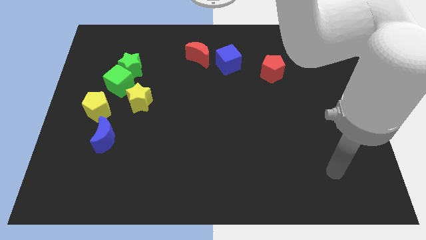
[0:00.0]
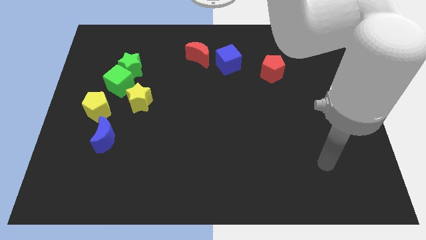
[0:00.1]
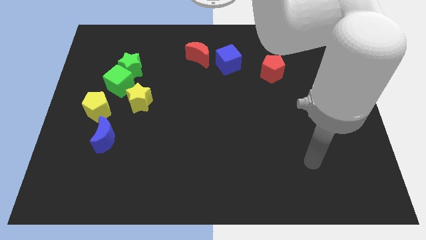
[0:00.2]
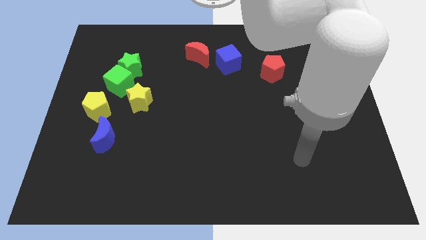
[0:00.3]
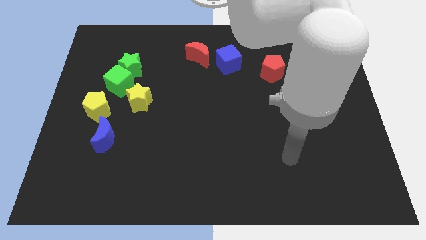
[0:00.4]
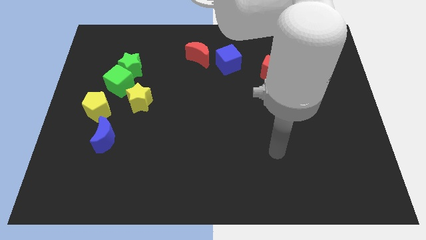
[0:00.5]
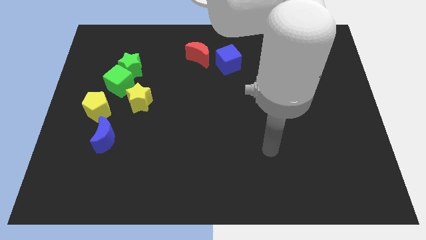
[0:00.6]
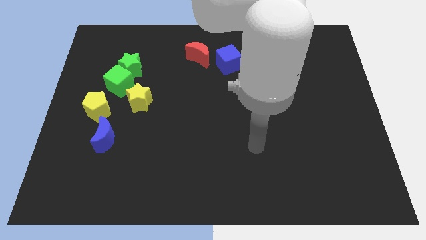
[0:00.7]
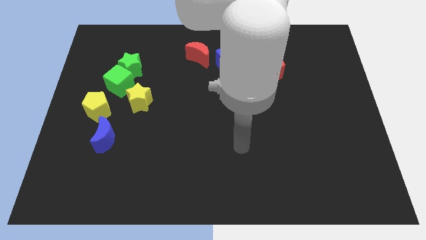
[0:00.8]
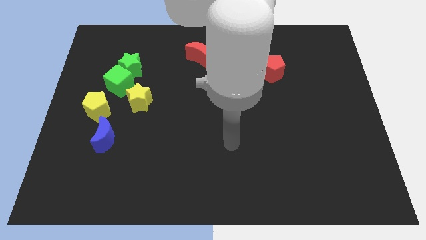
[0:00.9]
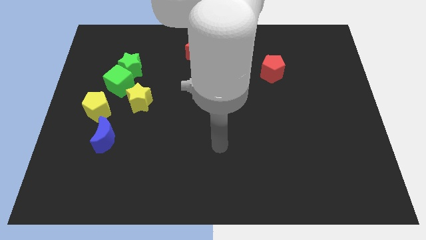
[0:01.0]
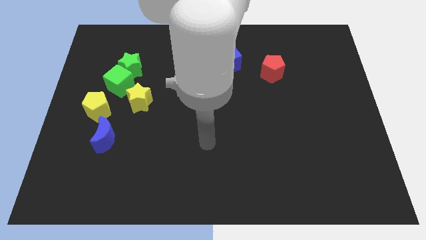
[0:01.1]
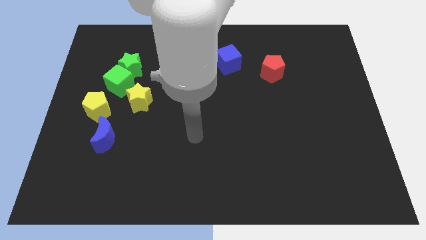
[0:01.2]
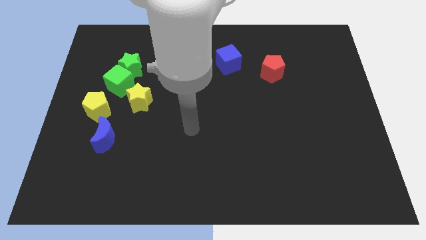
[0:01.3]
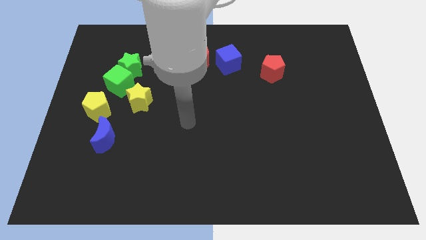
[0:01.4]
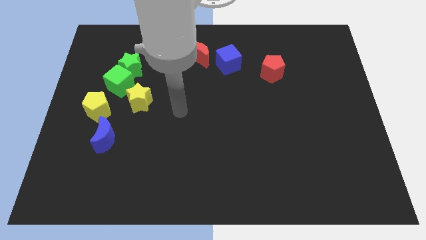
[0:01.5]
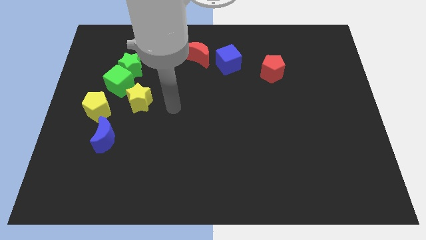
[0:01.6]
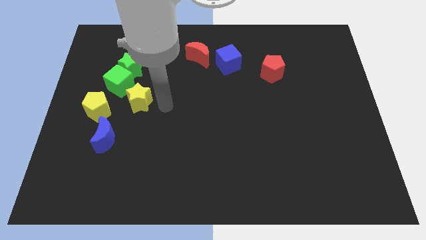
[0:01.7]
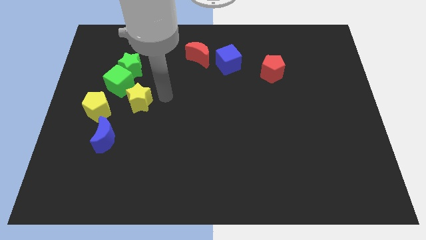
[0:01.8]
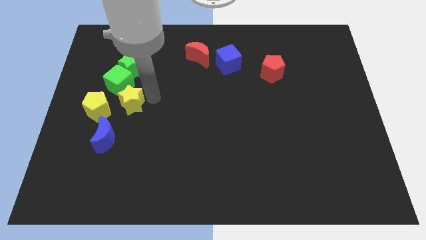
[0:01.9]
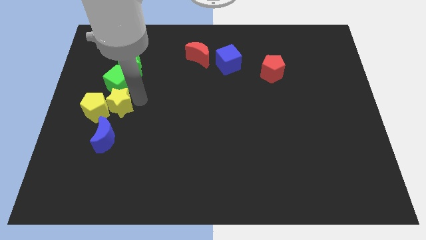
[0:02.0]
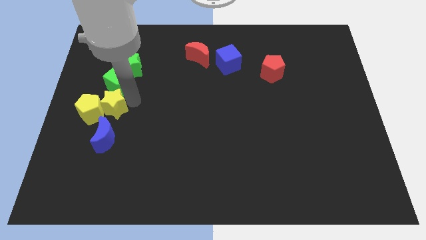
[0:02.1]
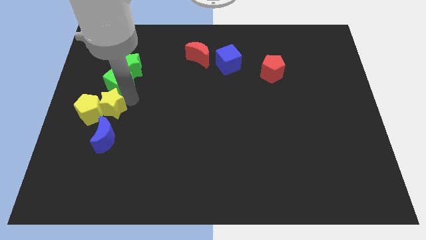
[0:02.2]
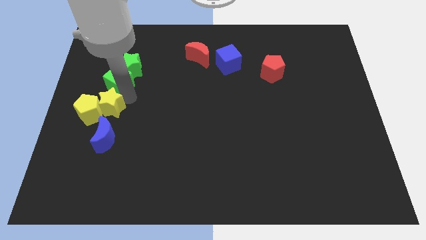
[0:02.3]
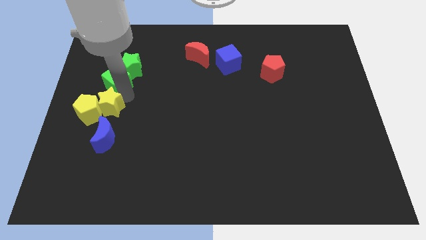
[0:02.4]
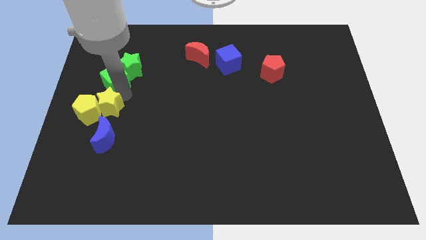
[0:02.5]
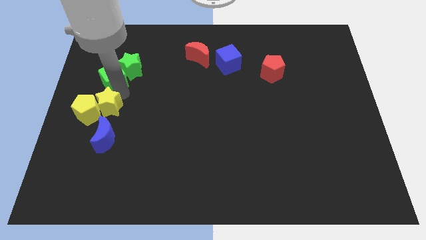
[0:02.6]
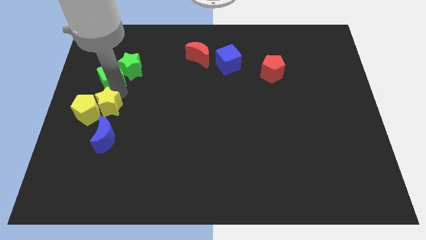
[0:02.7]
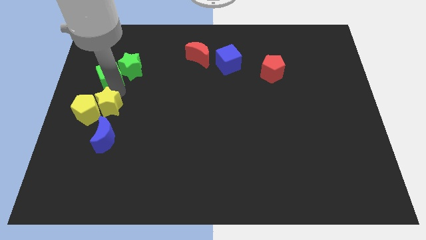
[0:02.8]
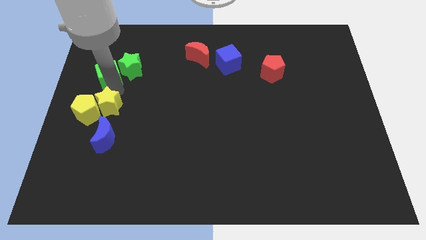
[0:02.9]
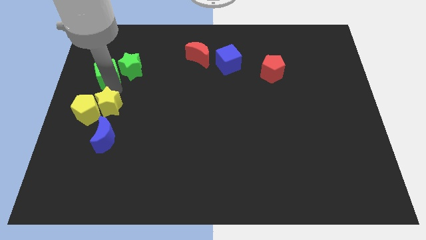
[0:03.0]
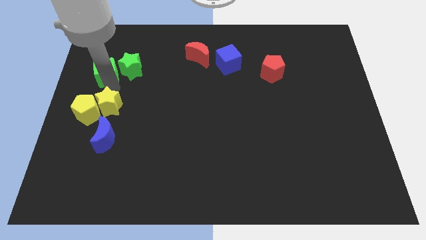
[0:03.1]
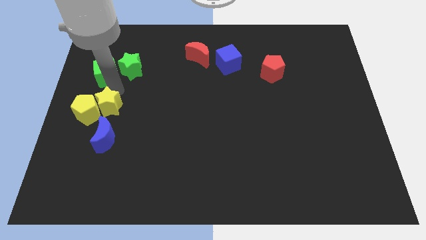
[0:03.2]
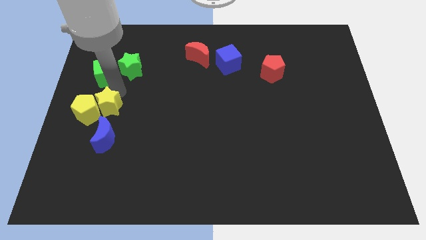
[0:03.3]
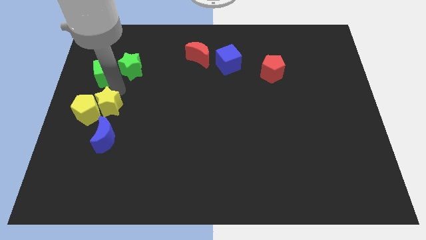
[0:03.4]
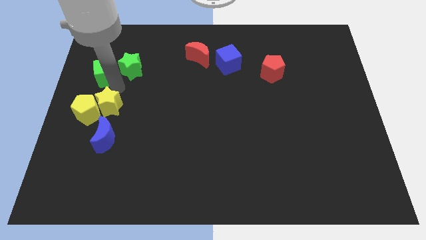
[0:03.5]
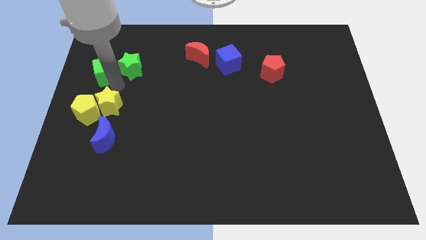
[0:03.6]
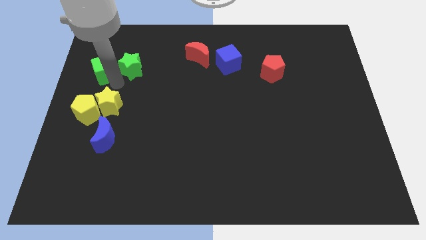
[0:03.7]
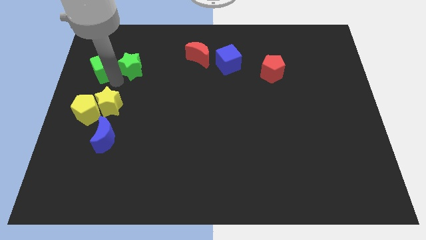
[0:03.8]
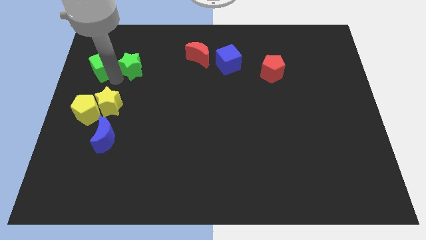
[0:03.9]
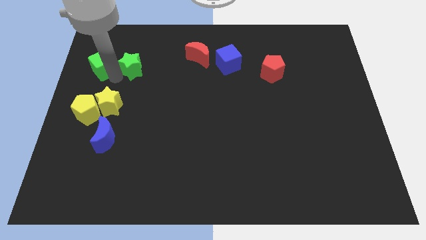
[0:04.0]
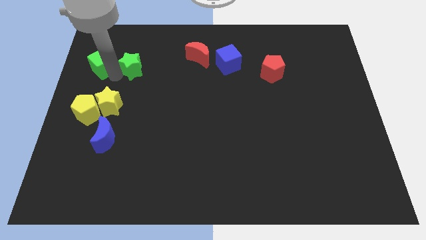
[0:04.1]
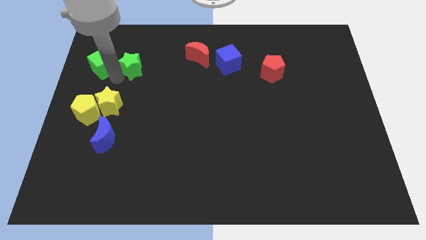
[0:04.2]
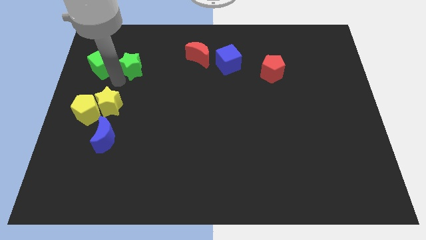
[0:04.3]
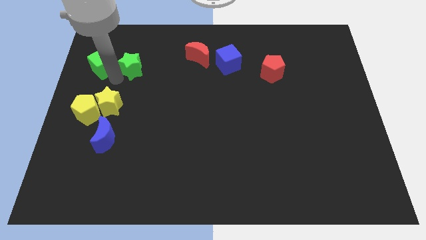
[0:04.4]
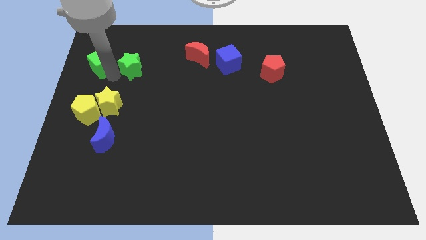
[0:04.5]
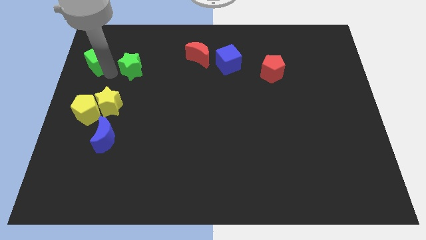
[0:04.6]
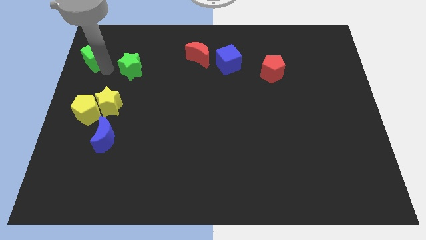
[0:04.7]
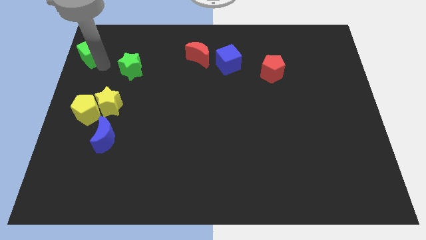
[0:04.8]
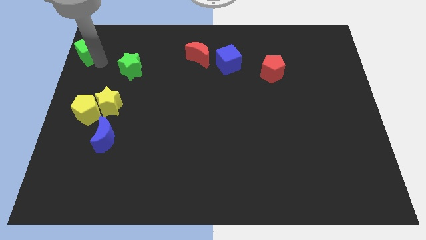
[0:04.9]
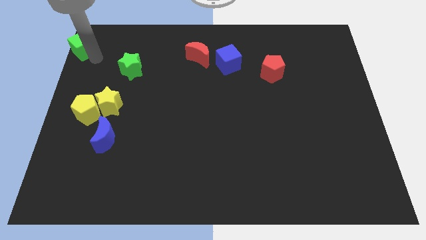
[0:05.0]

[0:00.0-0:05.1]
put the green cube to the top left of the board
